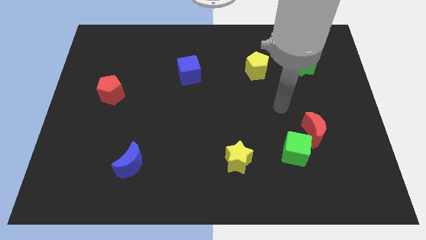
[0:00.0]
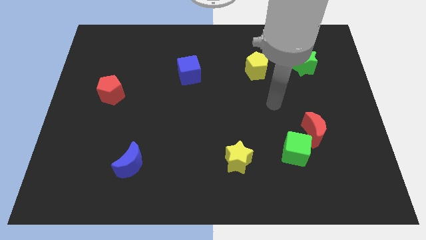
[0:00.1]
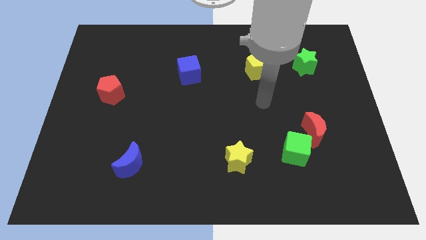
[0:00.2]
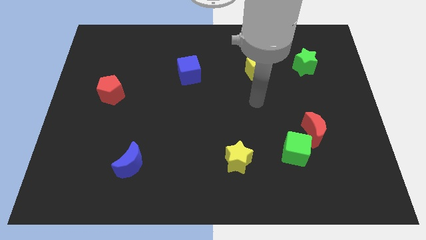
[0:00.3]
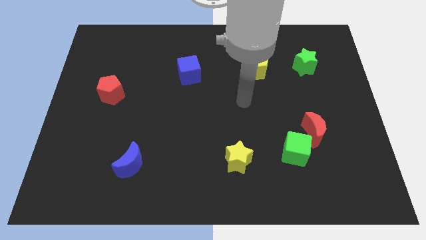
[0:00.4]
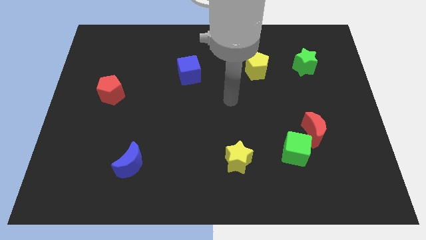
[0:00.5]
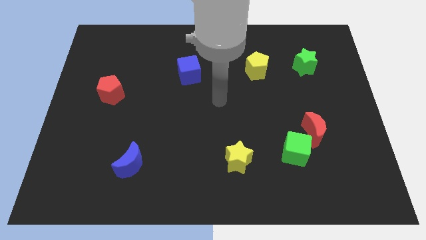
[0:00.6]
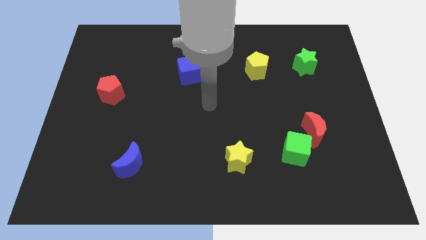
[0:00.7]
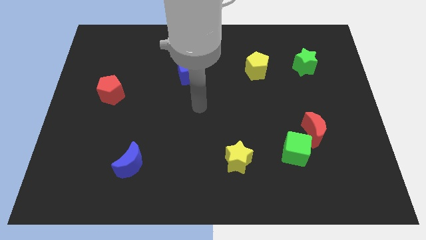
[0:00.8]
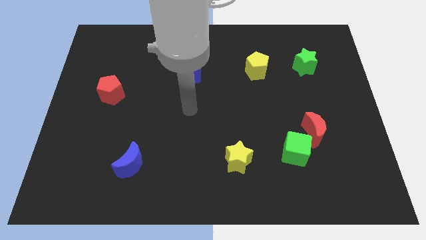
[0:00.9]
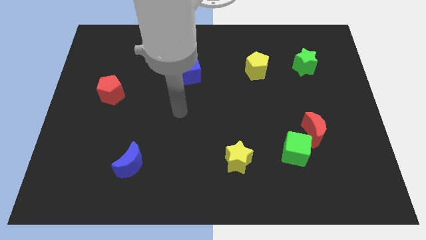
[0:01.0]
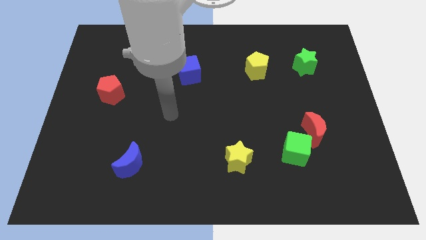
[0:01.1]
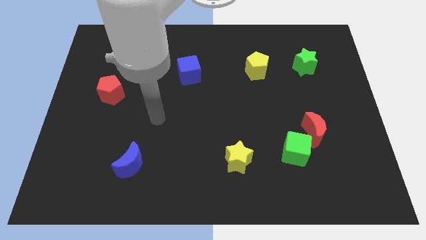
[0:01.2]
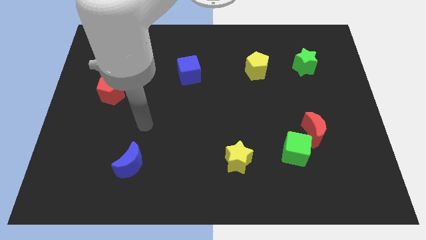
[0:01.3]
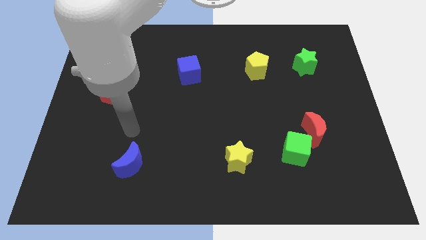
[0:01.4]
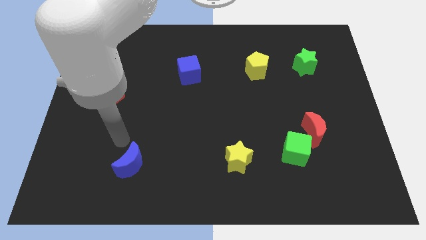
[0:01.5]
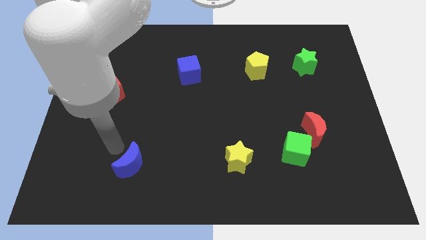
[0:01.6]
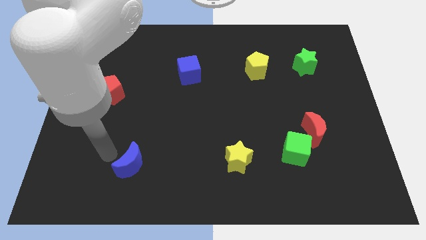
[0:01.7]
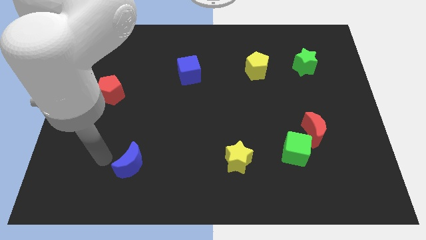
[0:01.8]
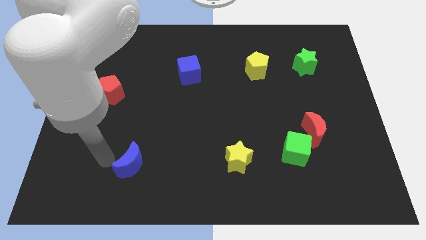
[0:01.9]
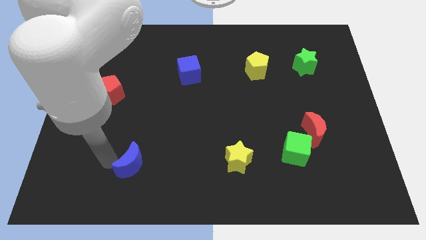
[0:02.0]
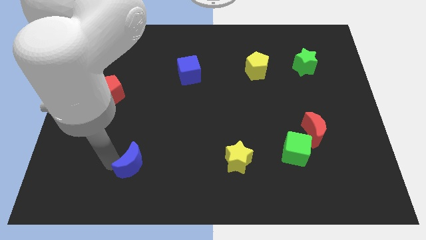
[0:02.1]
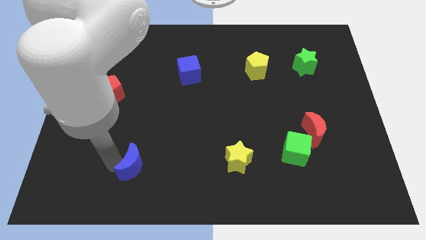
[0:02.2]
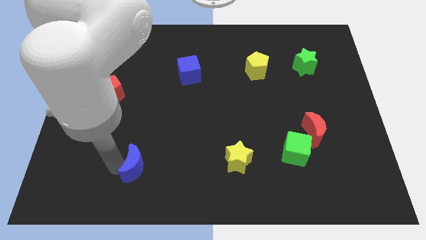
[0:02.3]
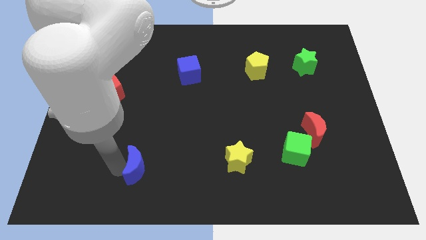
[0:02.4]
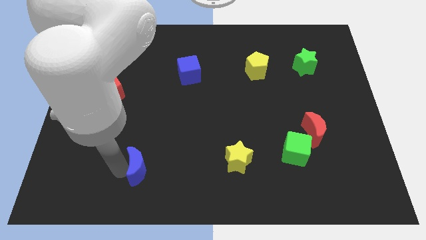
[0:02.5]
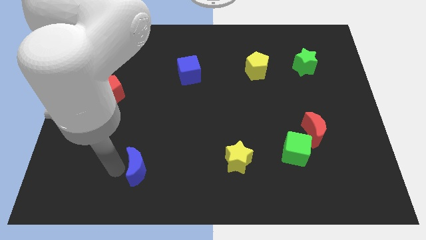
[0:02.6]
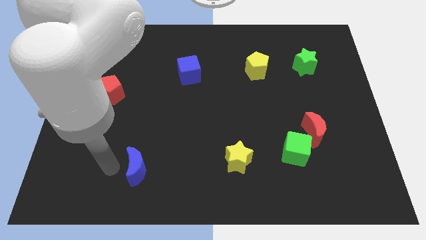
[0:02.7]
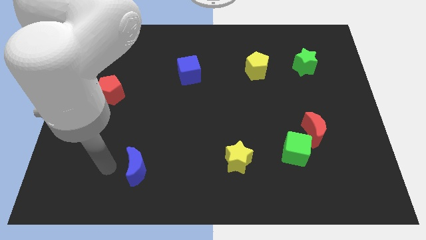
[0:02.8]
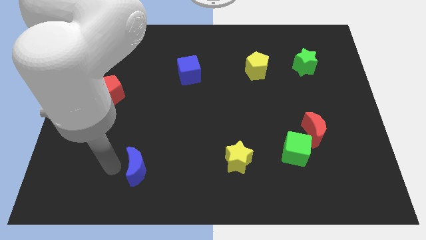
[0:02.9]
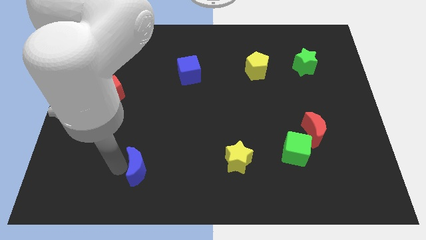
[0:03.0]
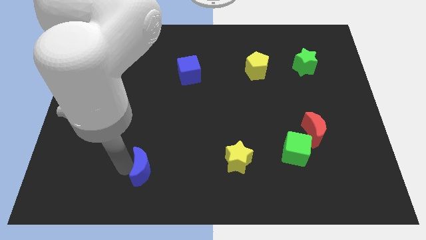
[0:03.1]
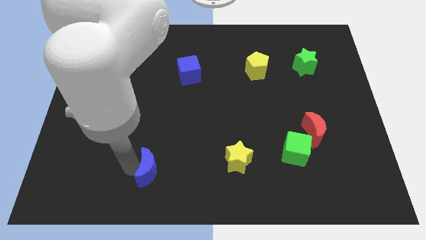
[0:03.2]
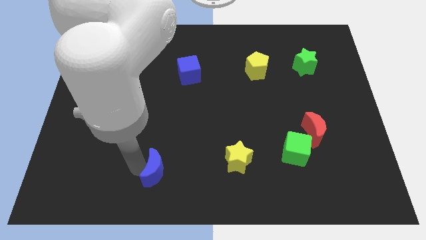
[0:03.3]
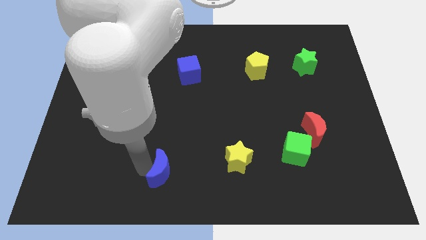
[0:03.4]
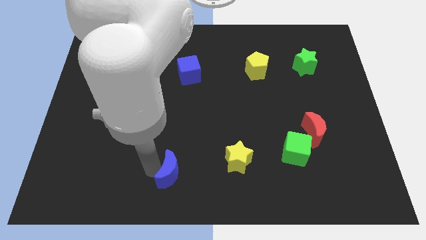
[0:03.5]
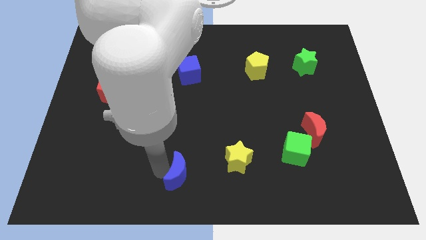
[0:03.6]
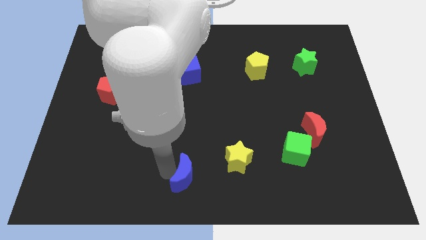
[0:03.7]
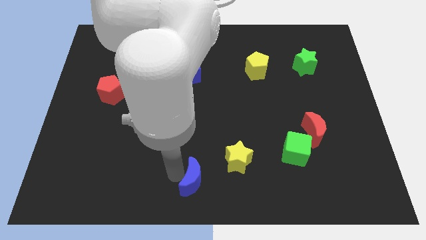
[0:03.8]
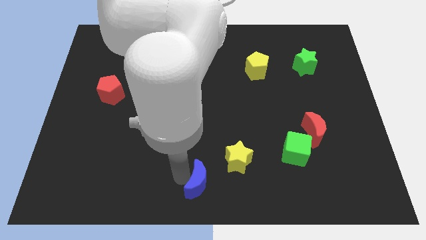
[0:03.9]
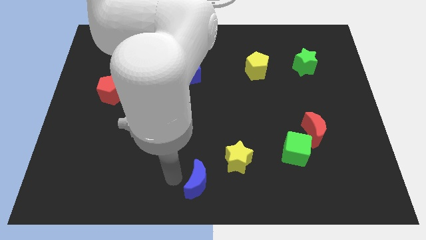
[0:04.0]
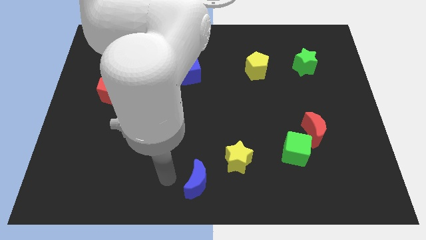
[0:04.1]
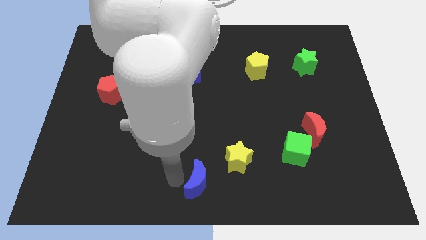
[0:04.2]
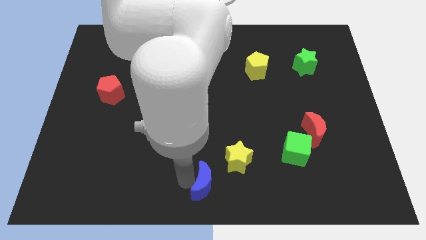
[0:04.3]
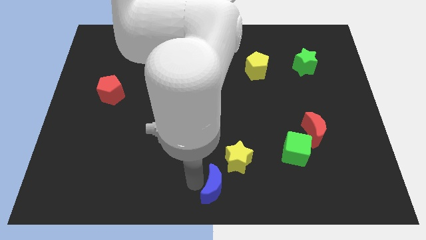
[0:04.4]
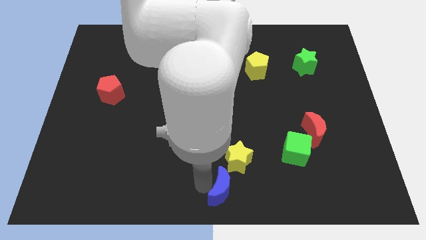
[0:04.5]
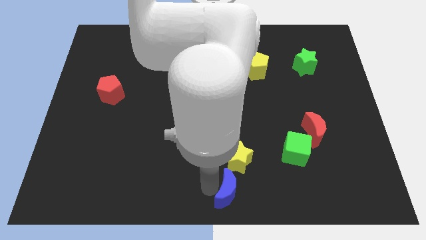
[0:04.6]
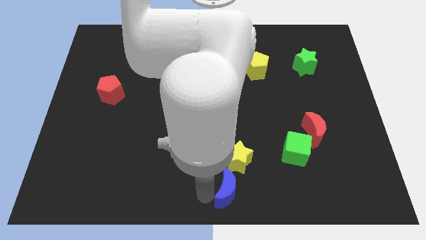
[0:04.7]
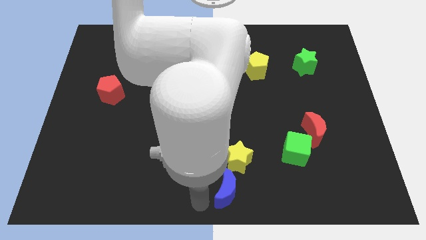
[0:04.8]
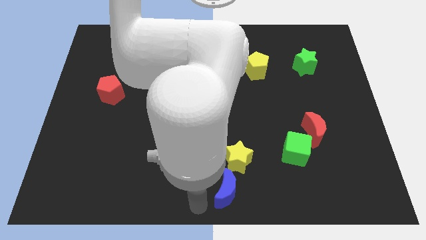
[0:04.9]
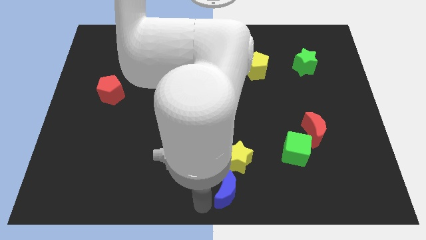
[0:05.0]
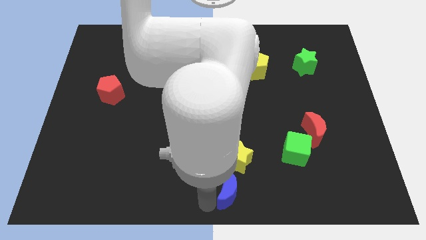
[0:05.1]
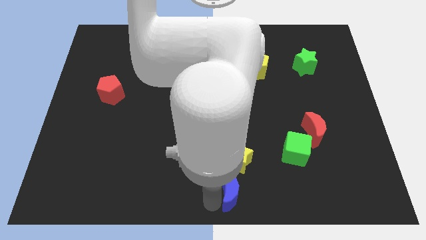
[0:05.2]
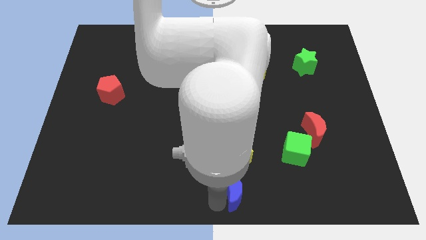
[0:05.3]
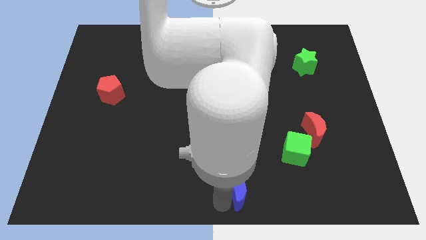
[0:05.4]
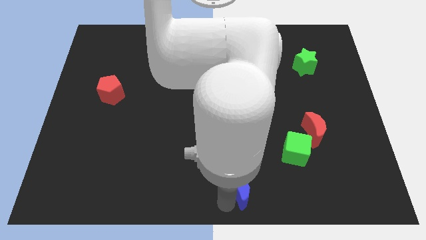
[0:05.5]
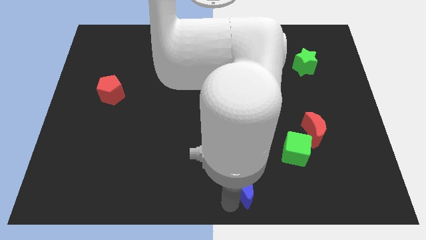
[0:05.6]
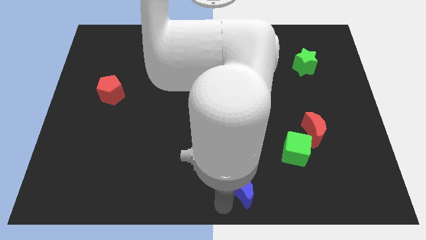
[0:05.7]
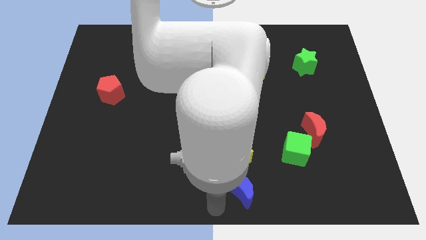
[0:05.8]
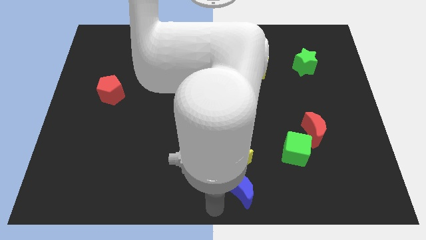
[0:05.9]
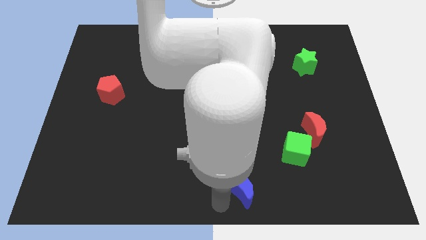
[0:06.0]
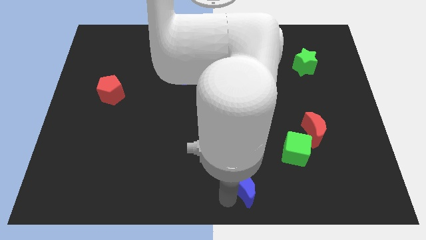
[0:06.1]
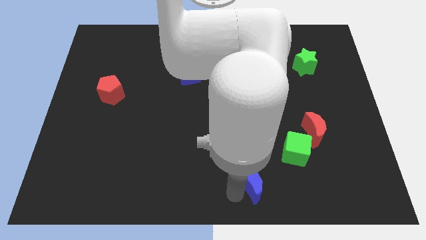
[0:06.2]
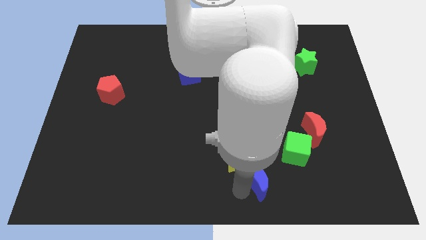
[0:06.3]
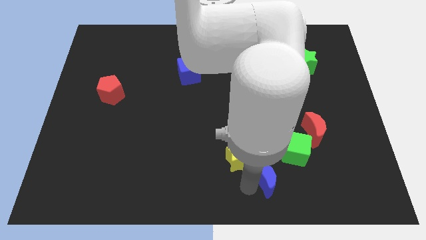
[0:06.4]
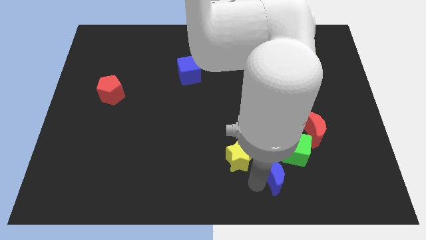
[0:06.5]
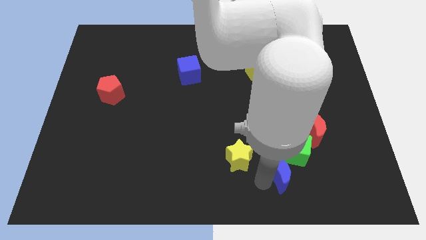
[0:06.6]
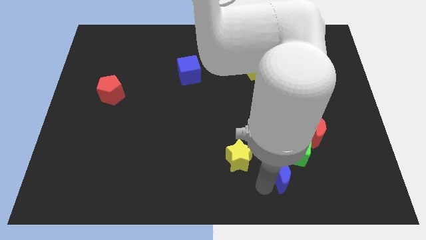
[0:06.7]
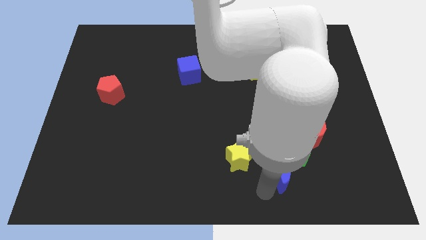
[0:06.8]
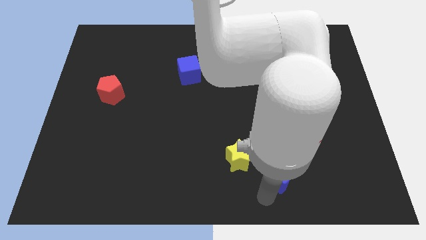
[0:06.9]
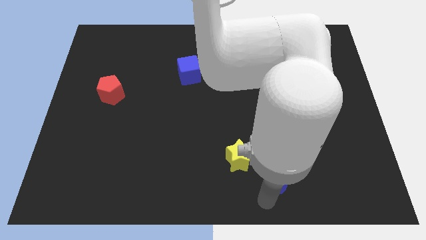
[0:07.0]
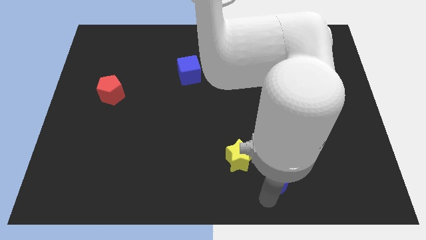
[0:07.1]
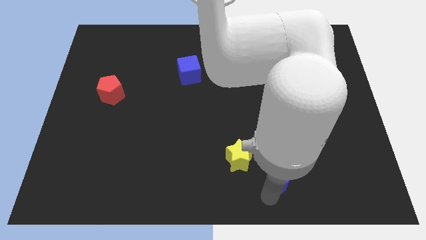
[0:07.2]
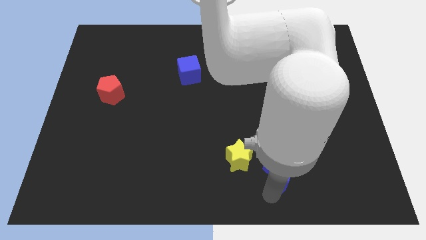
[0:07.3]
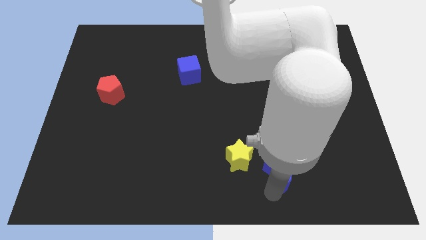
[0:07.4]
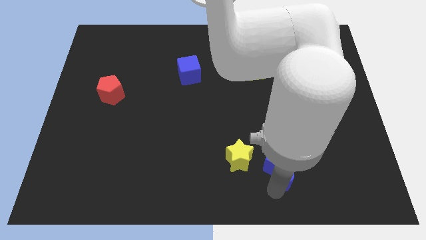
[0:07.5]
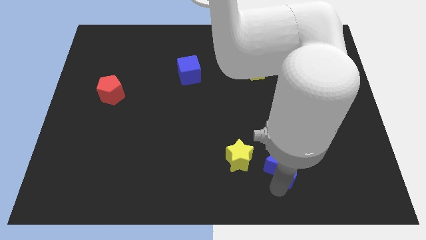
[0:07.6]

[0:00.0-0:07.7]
put the blue moon to the bottom left side of the red moon
